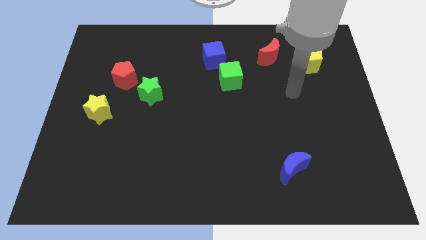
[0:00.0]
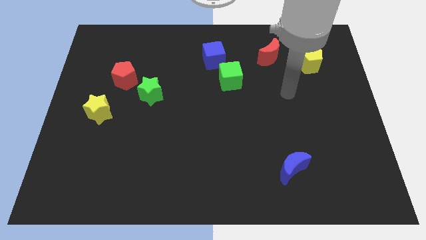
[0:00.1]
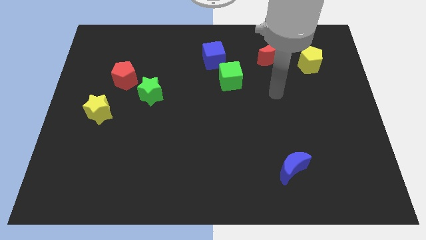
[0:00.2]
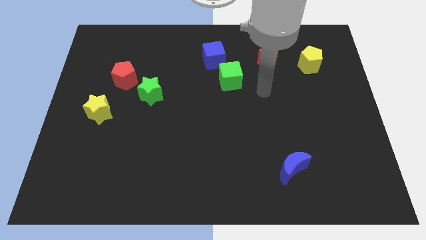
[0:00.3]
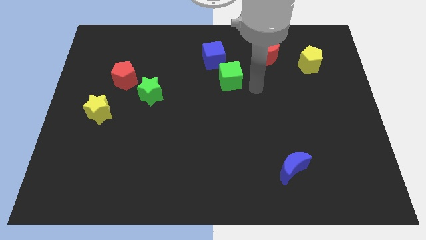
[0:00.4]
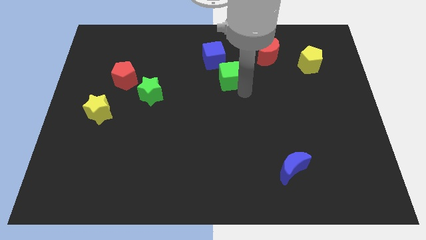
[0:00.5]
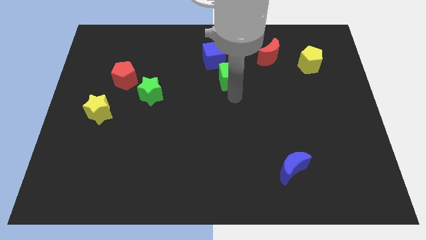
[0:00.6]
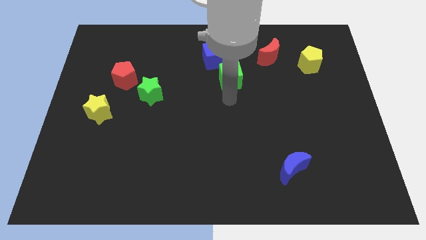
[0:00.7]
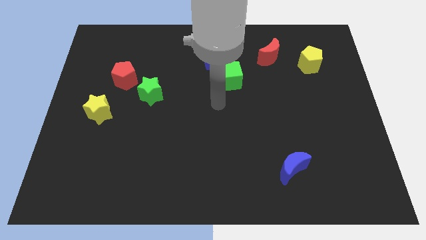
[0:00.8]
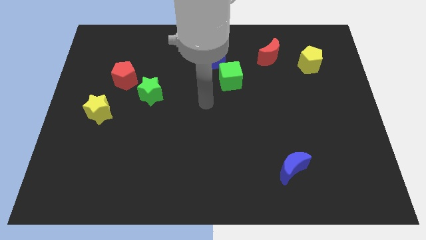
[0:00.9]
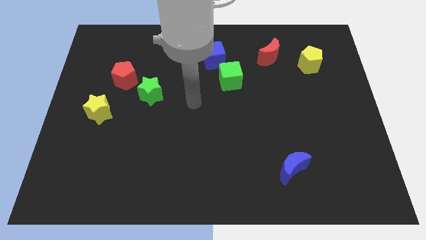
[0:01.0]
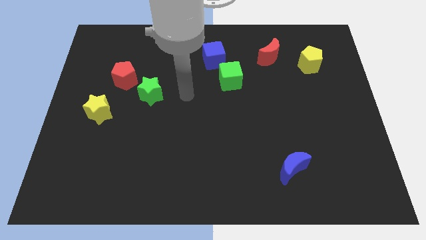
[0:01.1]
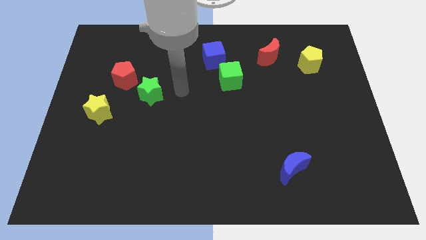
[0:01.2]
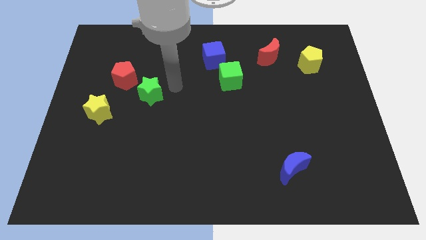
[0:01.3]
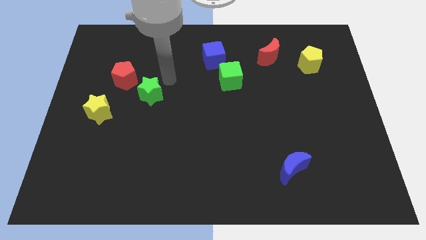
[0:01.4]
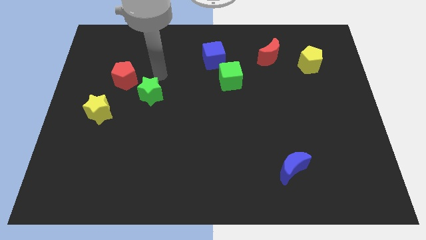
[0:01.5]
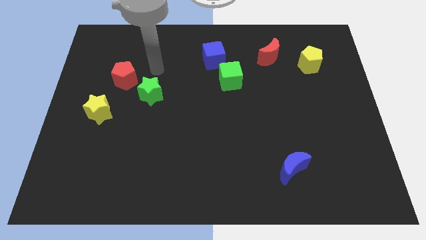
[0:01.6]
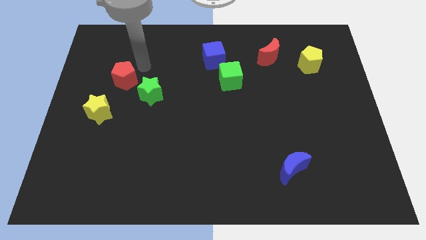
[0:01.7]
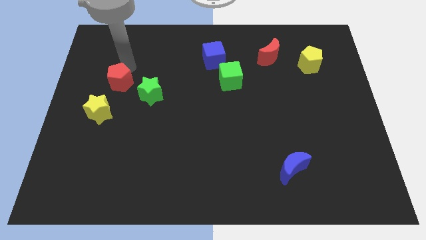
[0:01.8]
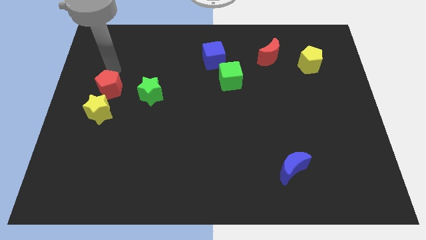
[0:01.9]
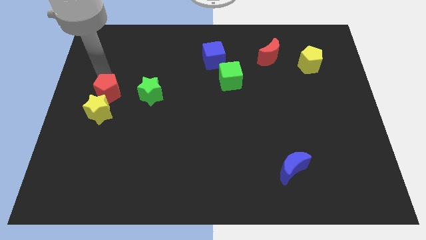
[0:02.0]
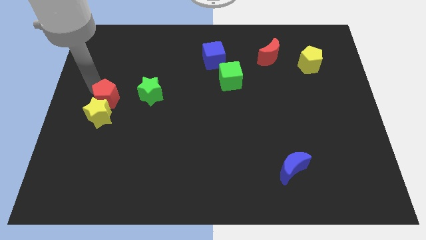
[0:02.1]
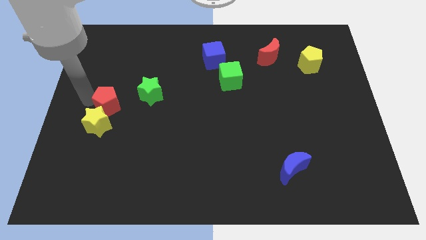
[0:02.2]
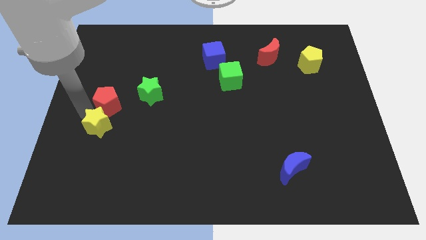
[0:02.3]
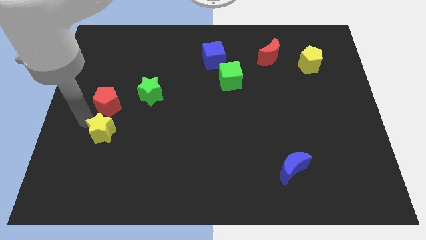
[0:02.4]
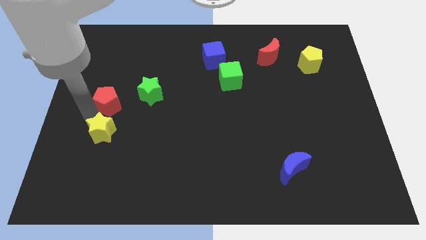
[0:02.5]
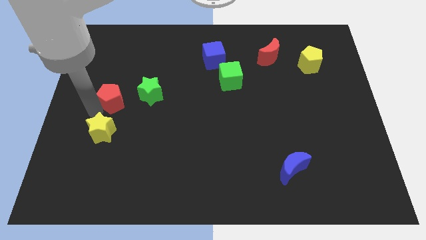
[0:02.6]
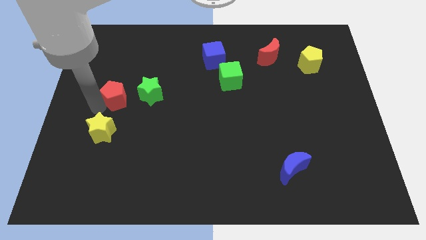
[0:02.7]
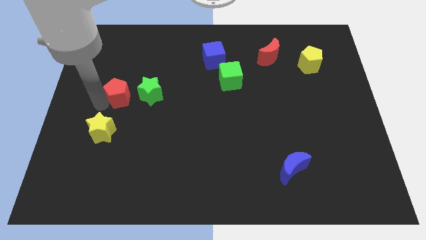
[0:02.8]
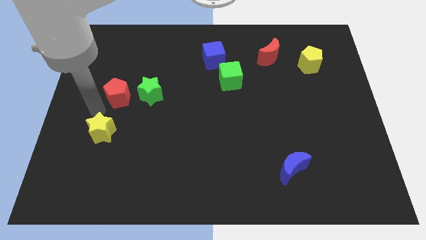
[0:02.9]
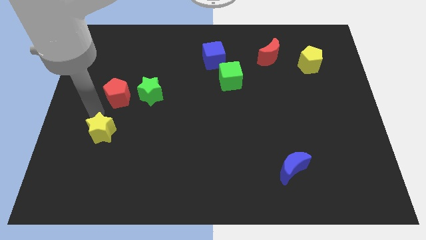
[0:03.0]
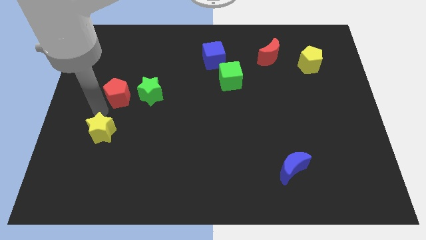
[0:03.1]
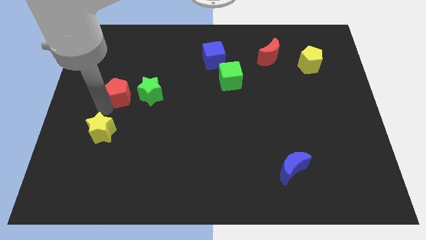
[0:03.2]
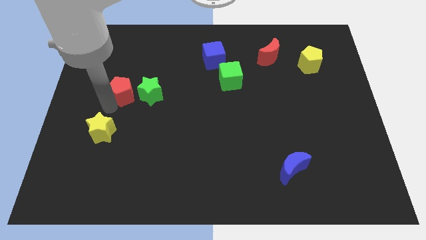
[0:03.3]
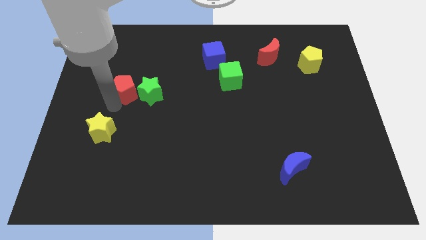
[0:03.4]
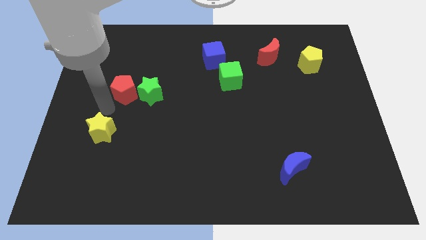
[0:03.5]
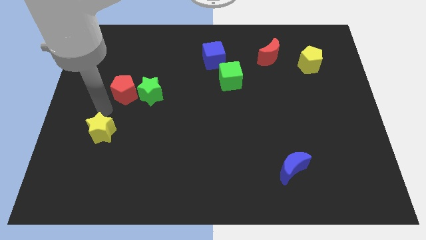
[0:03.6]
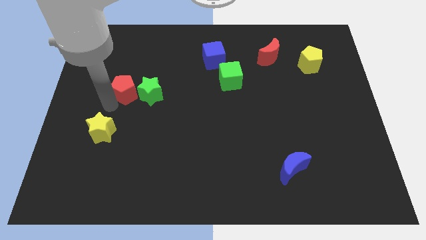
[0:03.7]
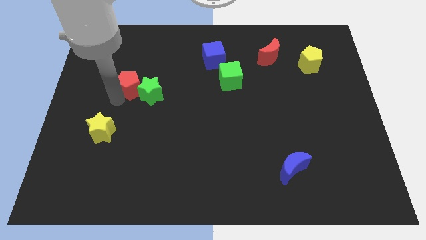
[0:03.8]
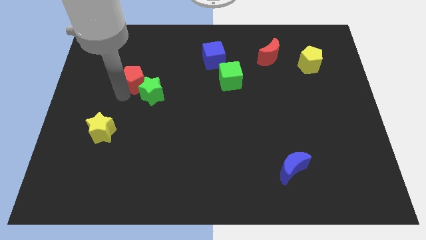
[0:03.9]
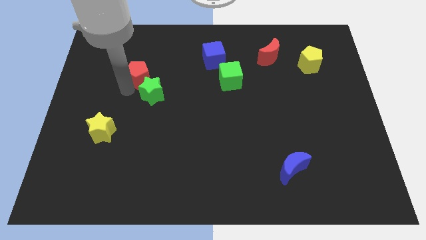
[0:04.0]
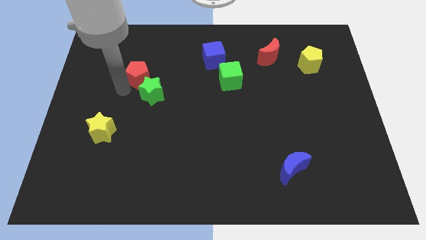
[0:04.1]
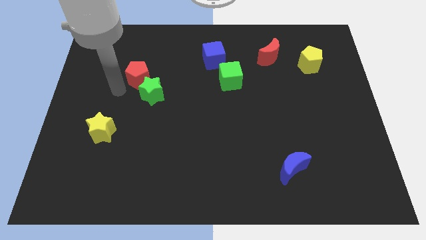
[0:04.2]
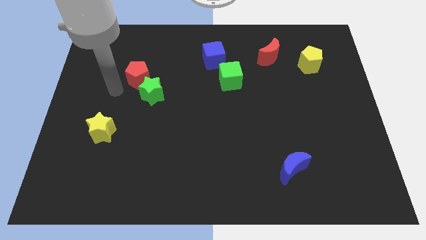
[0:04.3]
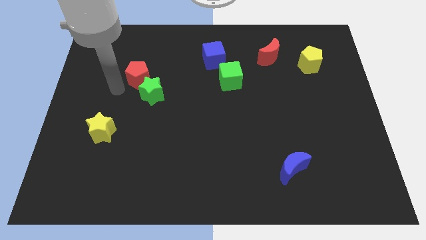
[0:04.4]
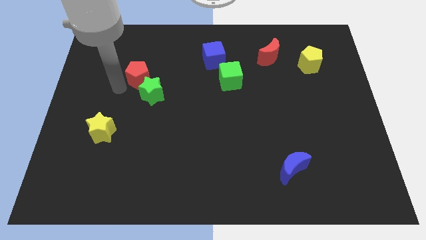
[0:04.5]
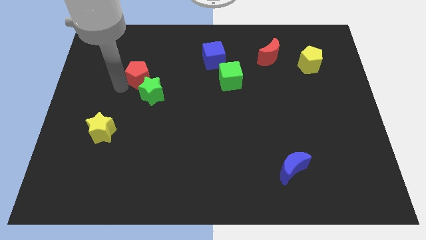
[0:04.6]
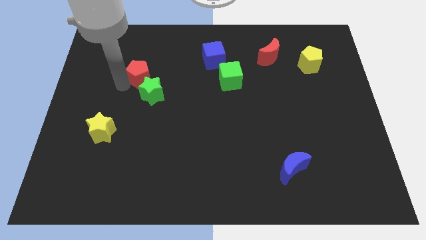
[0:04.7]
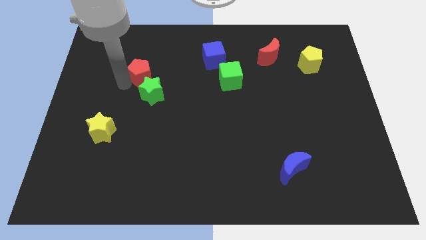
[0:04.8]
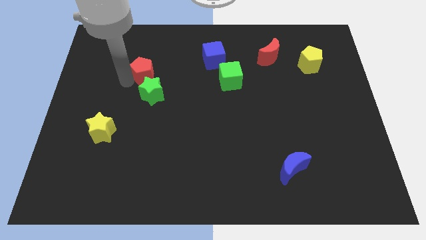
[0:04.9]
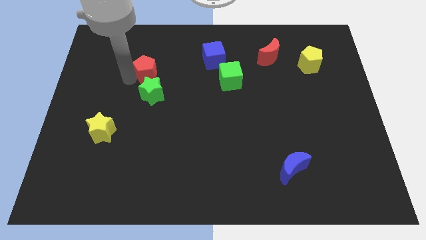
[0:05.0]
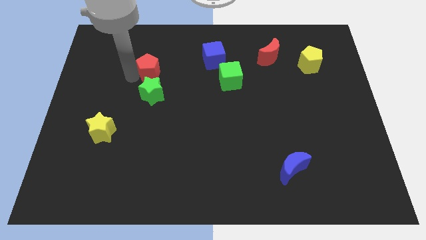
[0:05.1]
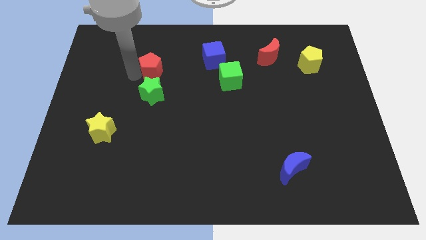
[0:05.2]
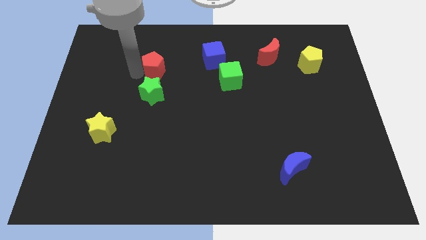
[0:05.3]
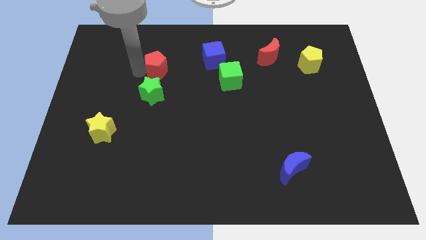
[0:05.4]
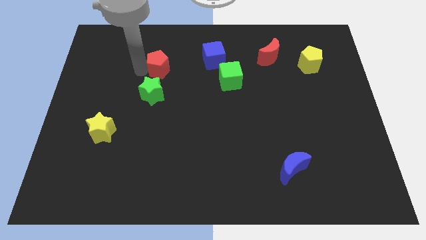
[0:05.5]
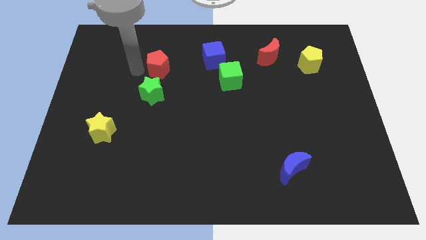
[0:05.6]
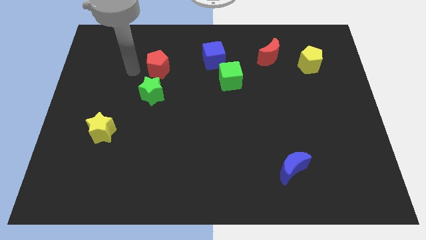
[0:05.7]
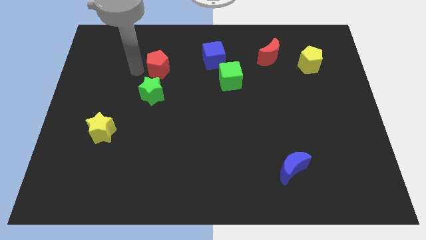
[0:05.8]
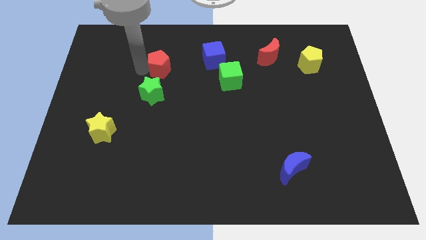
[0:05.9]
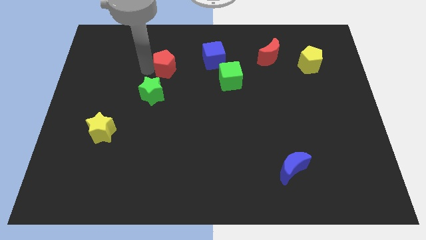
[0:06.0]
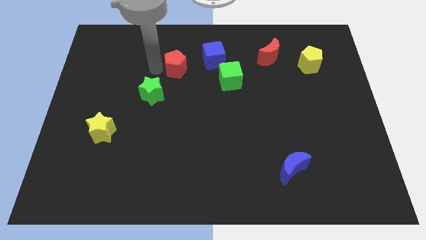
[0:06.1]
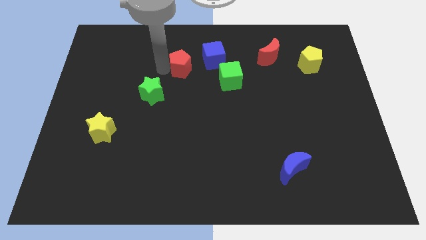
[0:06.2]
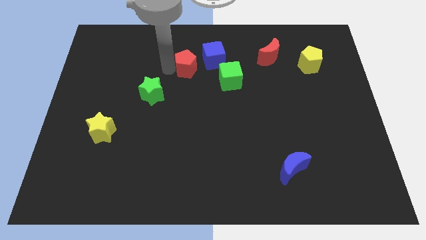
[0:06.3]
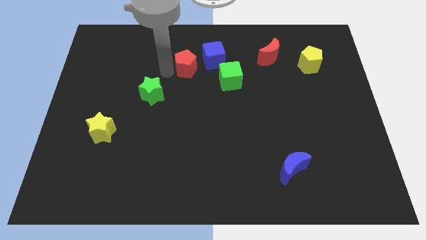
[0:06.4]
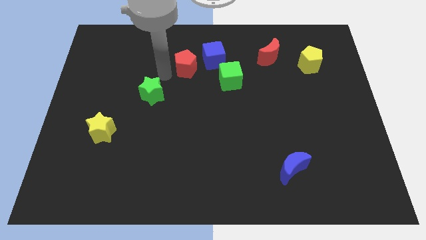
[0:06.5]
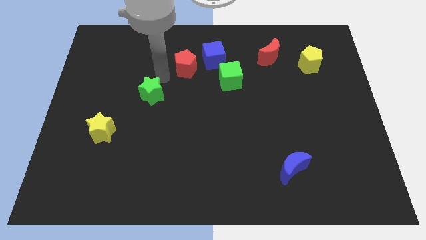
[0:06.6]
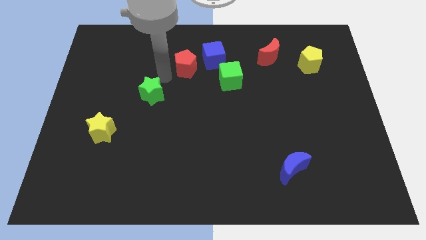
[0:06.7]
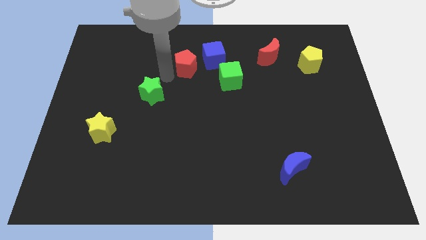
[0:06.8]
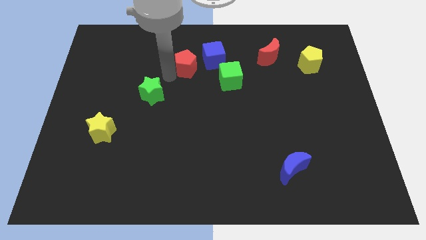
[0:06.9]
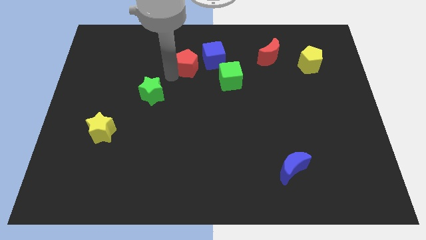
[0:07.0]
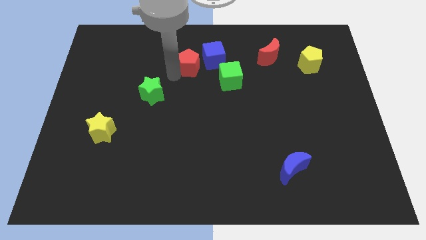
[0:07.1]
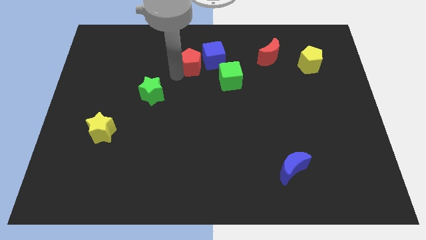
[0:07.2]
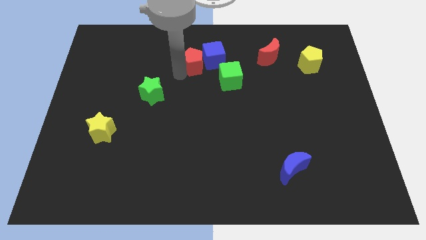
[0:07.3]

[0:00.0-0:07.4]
move the red pentagon towards the blue cube

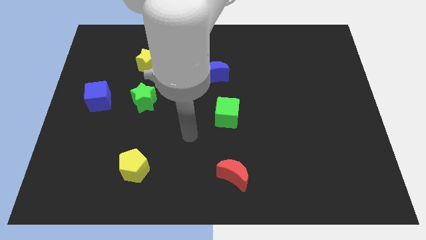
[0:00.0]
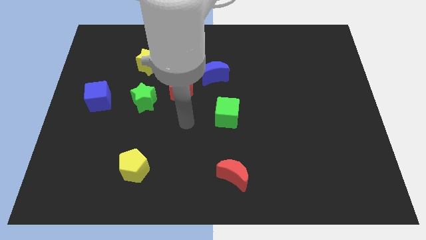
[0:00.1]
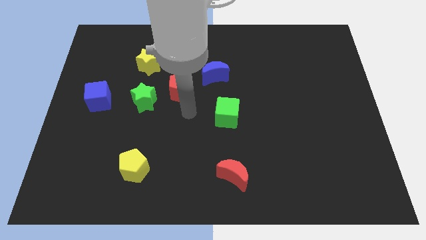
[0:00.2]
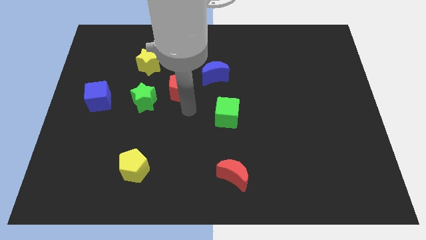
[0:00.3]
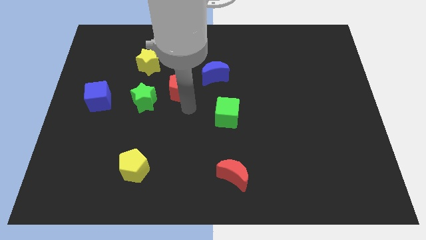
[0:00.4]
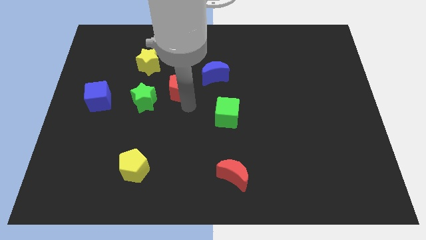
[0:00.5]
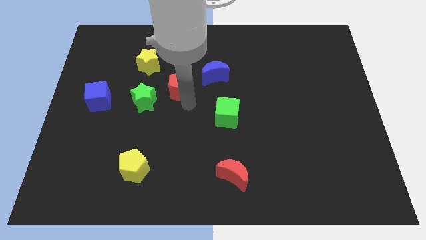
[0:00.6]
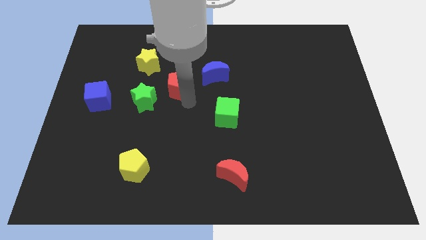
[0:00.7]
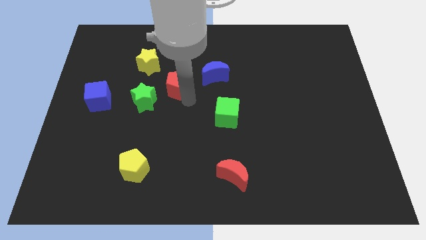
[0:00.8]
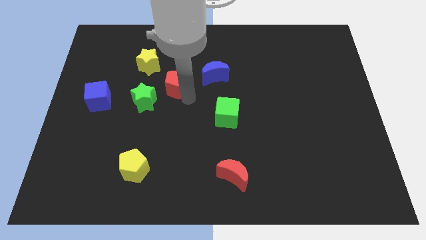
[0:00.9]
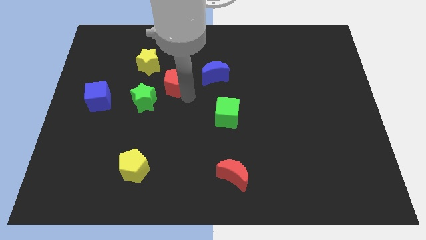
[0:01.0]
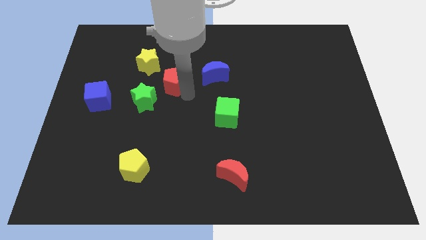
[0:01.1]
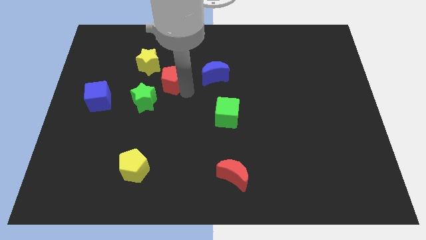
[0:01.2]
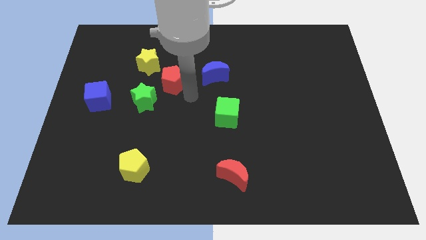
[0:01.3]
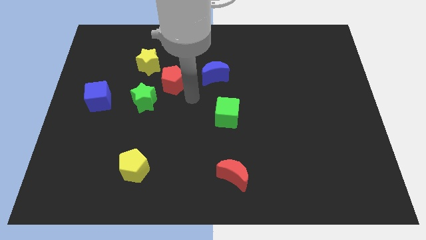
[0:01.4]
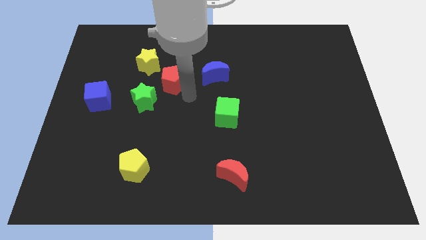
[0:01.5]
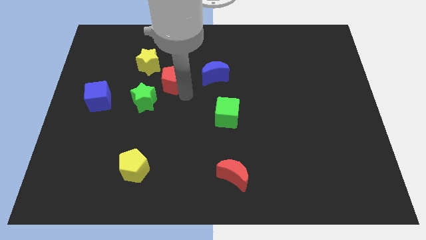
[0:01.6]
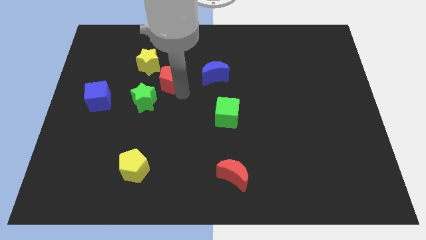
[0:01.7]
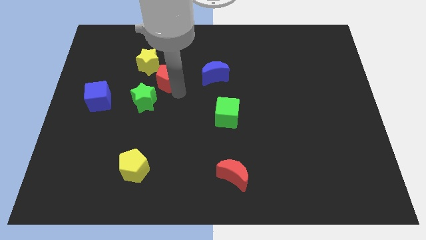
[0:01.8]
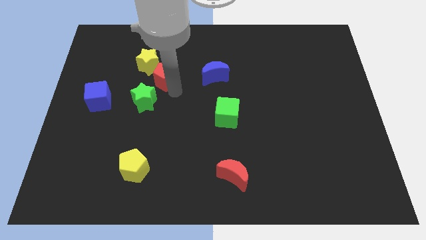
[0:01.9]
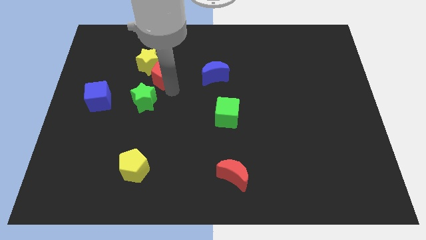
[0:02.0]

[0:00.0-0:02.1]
put the red pentagon close to the yellow star
